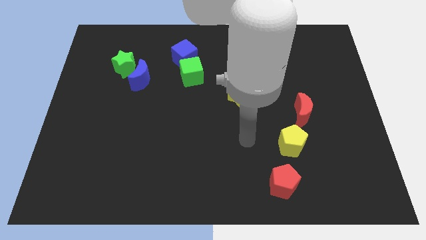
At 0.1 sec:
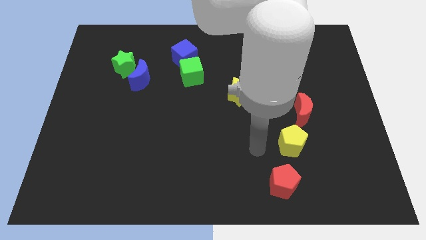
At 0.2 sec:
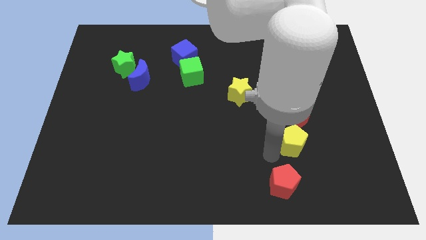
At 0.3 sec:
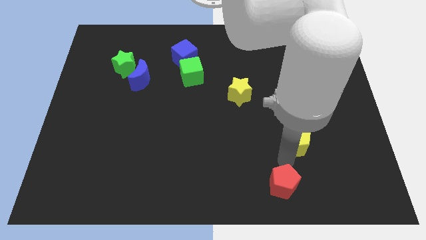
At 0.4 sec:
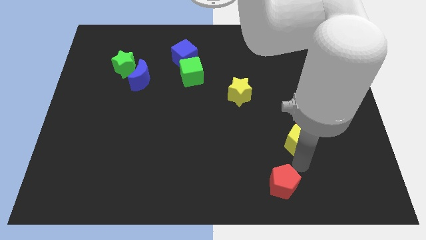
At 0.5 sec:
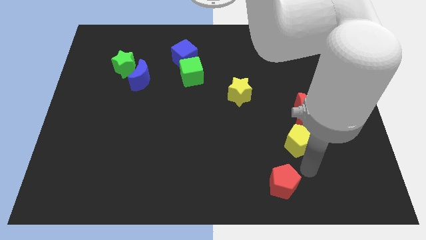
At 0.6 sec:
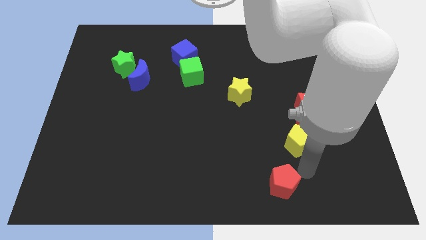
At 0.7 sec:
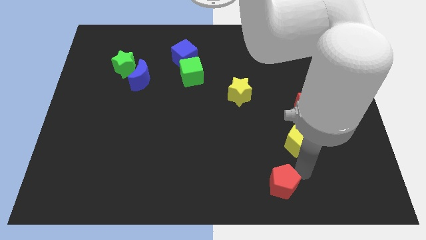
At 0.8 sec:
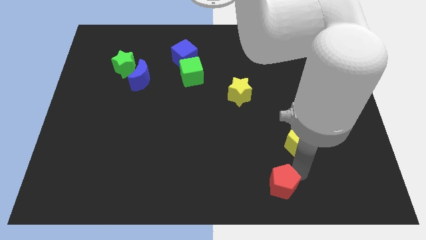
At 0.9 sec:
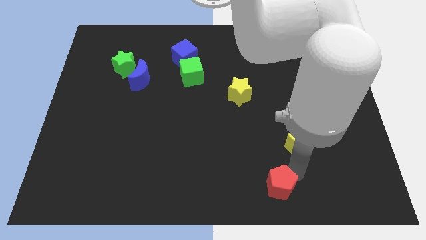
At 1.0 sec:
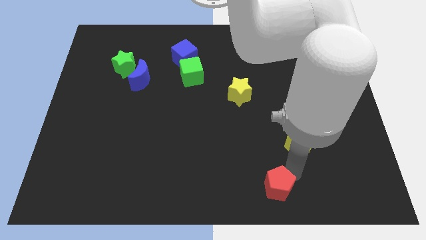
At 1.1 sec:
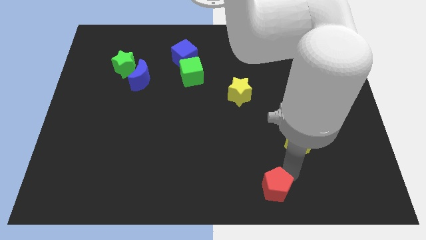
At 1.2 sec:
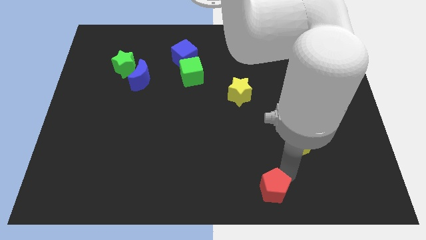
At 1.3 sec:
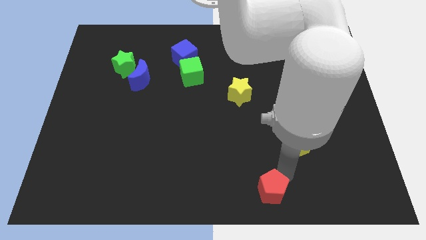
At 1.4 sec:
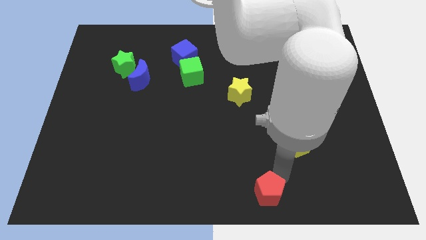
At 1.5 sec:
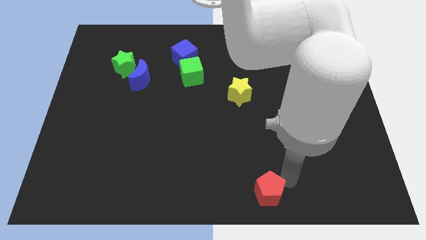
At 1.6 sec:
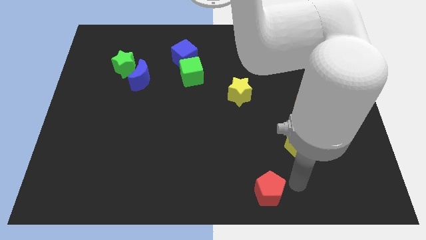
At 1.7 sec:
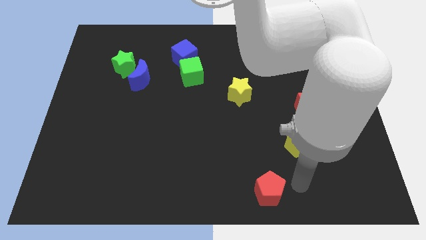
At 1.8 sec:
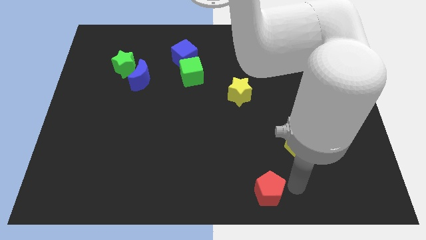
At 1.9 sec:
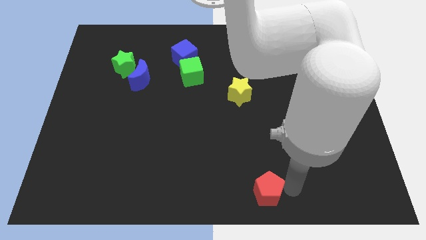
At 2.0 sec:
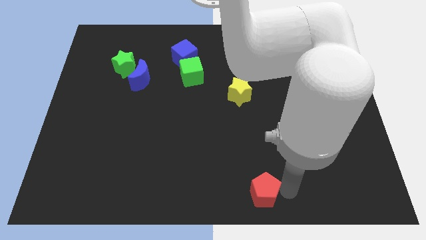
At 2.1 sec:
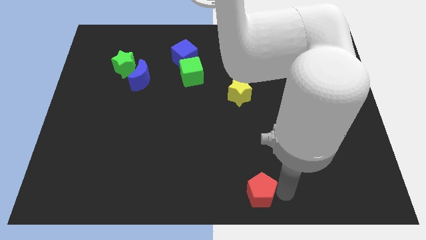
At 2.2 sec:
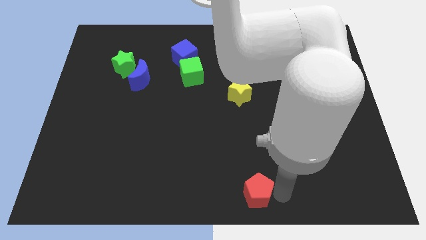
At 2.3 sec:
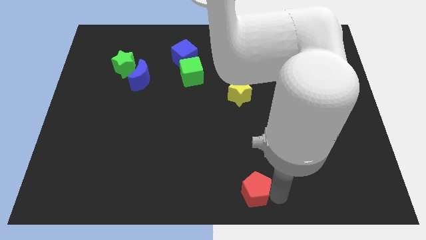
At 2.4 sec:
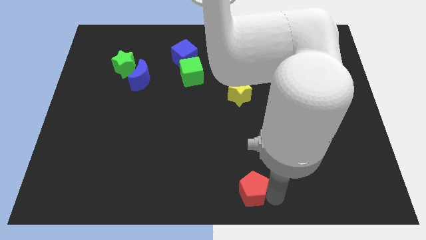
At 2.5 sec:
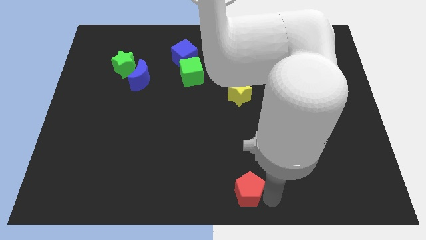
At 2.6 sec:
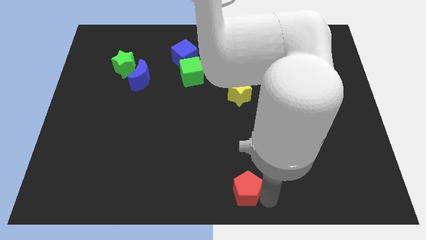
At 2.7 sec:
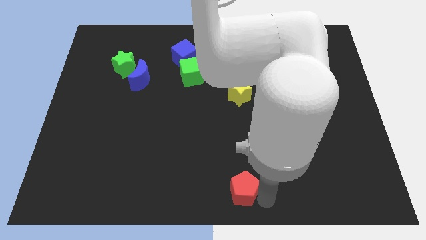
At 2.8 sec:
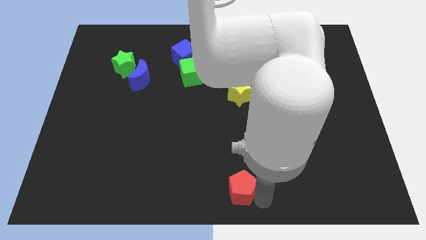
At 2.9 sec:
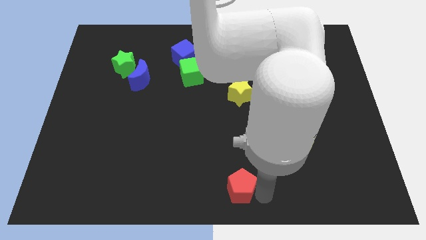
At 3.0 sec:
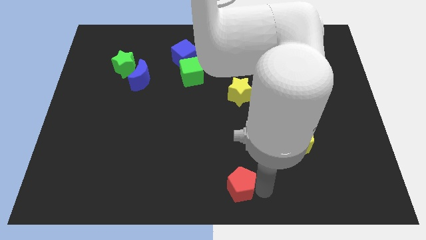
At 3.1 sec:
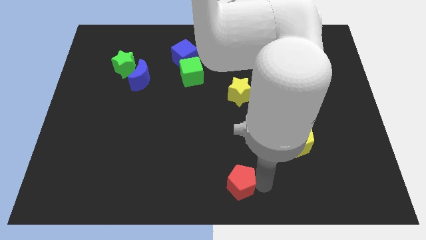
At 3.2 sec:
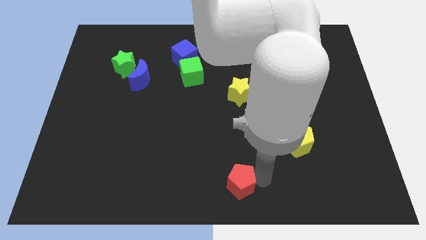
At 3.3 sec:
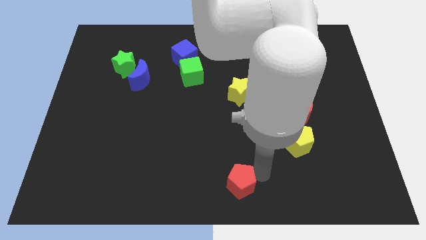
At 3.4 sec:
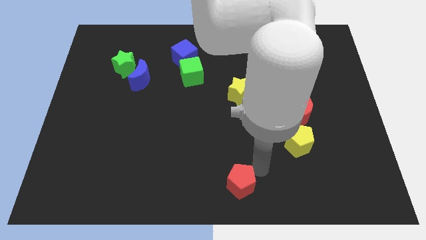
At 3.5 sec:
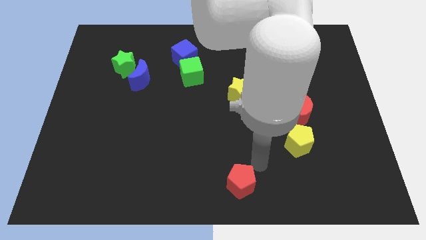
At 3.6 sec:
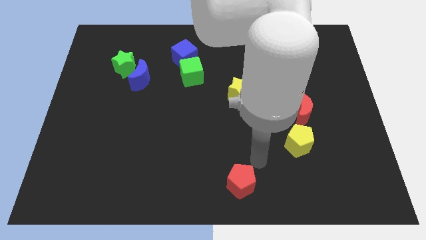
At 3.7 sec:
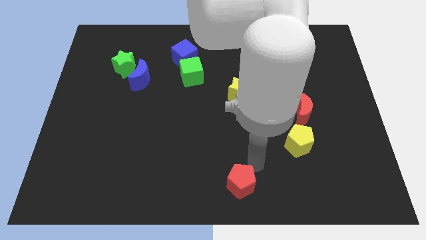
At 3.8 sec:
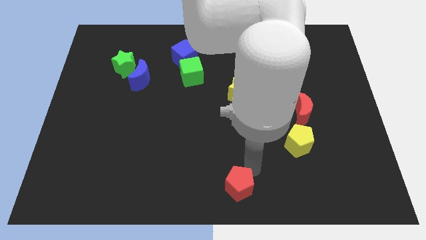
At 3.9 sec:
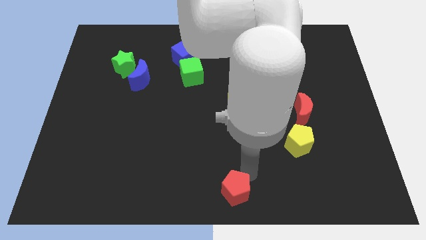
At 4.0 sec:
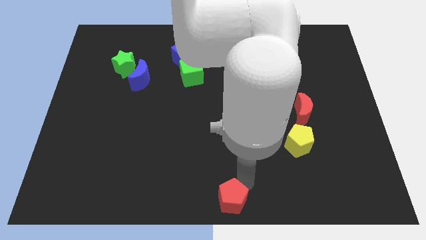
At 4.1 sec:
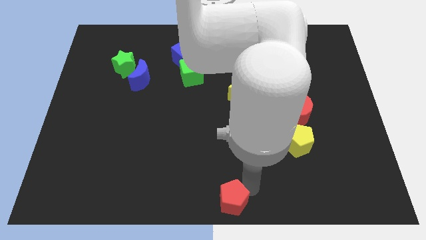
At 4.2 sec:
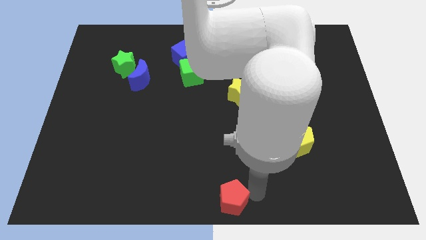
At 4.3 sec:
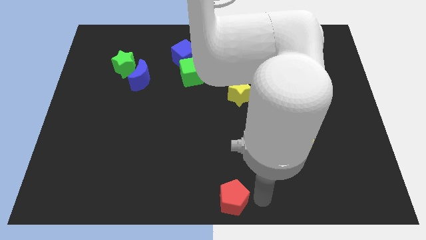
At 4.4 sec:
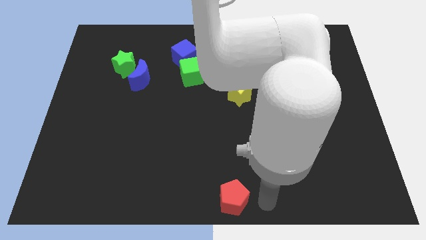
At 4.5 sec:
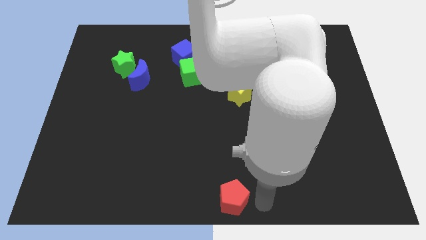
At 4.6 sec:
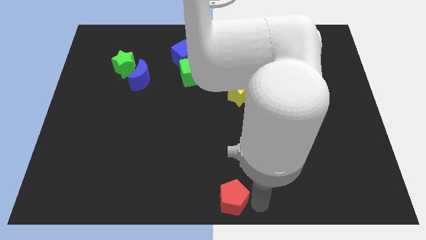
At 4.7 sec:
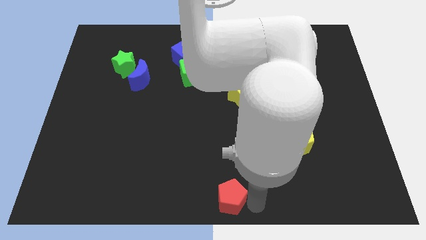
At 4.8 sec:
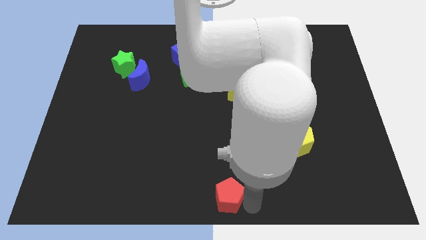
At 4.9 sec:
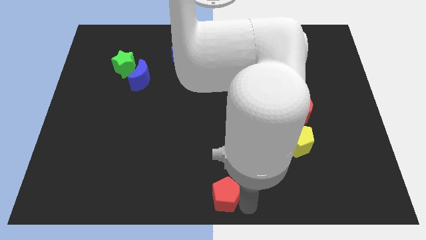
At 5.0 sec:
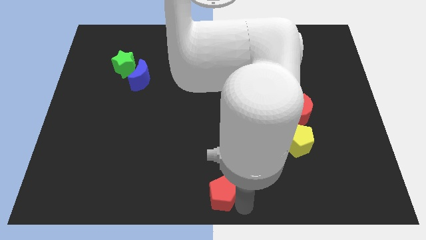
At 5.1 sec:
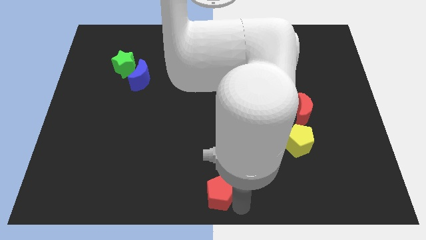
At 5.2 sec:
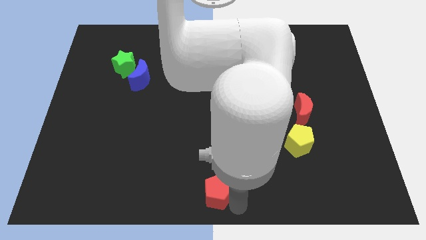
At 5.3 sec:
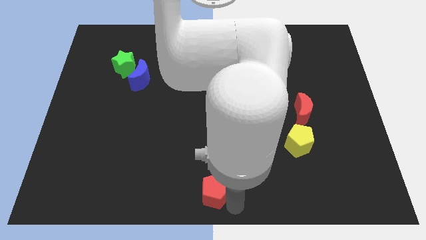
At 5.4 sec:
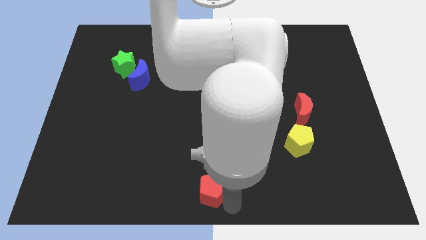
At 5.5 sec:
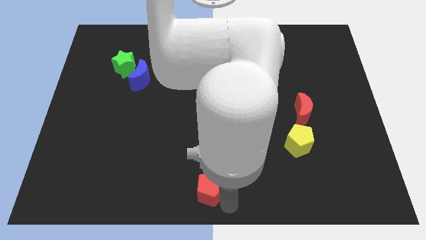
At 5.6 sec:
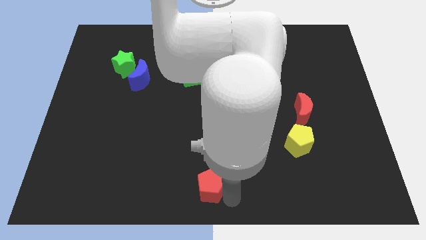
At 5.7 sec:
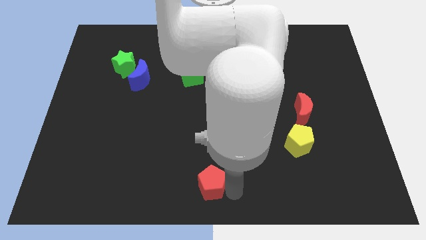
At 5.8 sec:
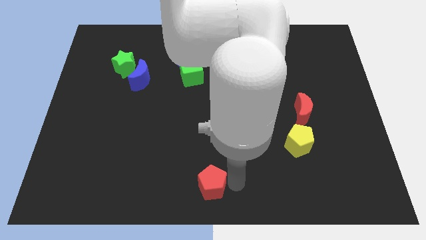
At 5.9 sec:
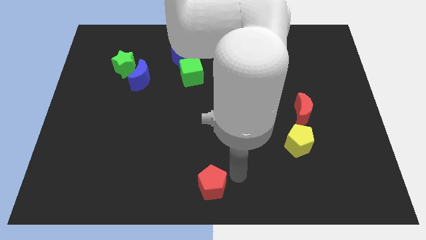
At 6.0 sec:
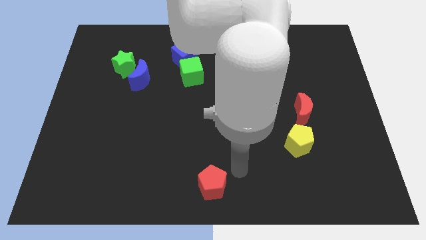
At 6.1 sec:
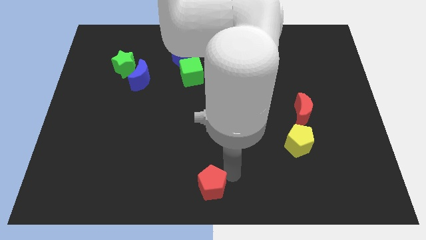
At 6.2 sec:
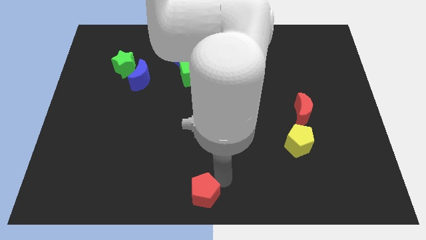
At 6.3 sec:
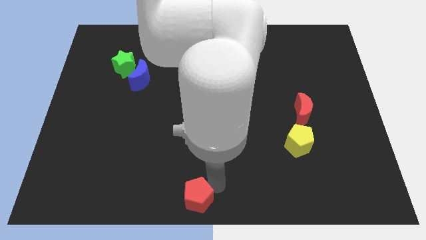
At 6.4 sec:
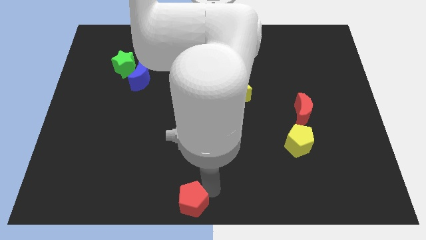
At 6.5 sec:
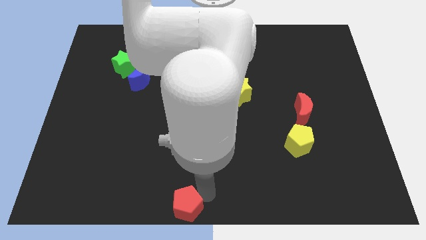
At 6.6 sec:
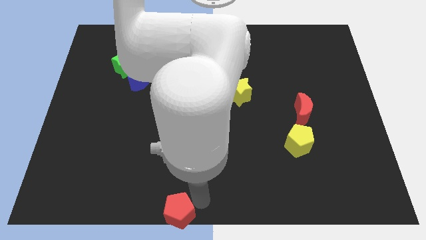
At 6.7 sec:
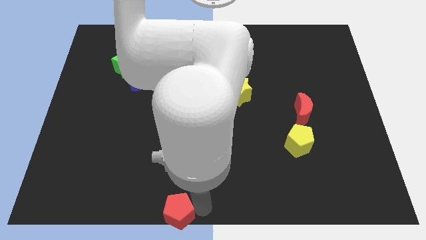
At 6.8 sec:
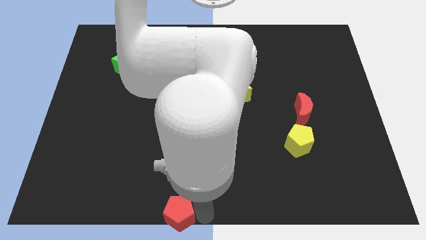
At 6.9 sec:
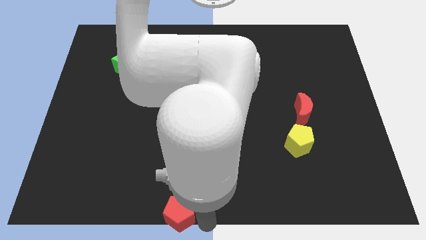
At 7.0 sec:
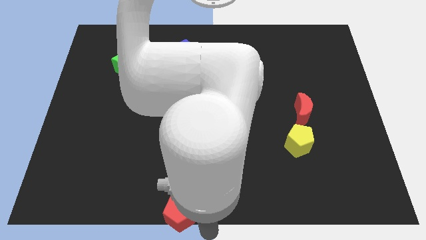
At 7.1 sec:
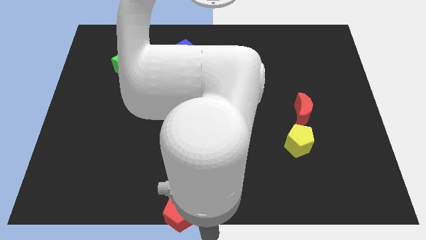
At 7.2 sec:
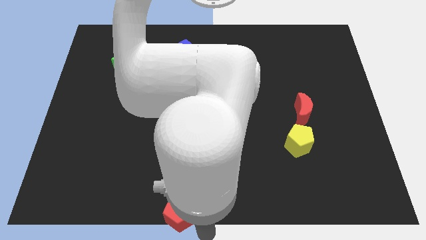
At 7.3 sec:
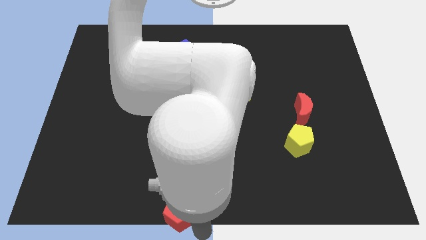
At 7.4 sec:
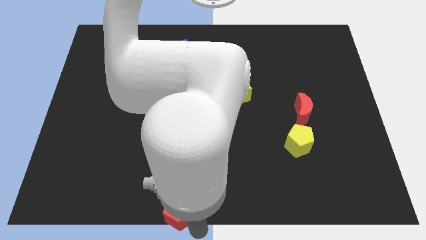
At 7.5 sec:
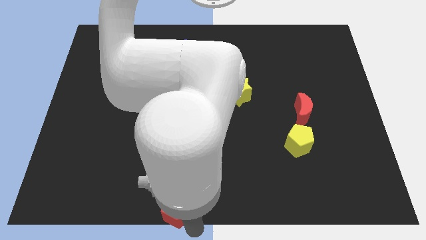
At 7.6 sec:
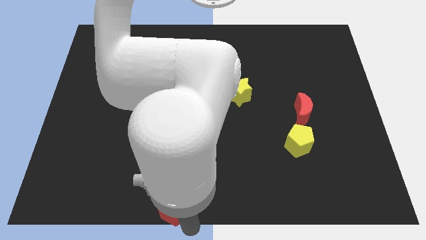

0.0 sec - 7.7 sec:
slide the red pentagon left
